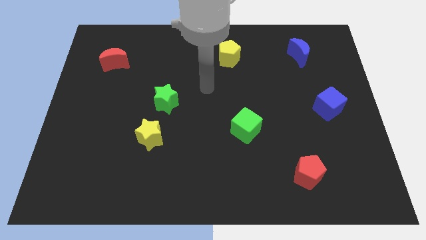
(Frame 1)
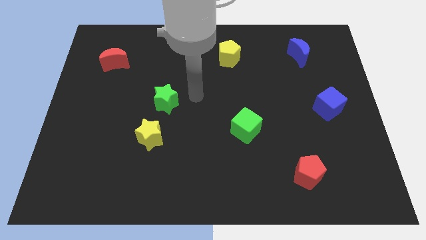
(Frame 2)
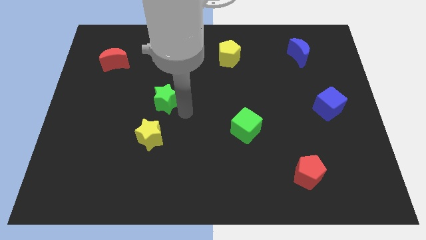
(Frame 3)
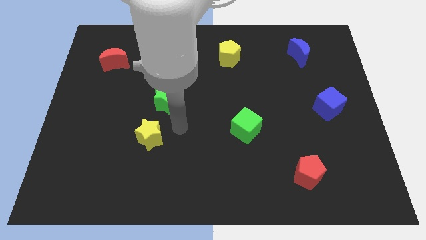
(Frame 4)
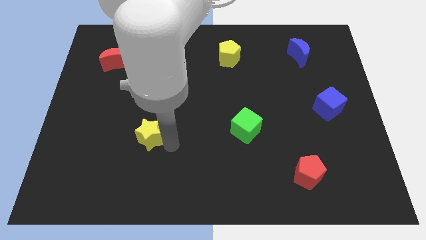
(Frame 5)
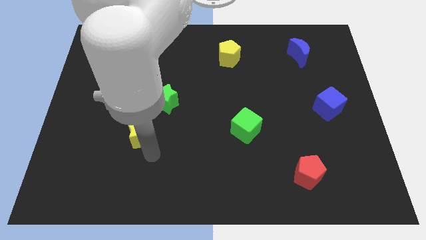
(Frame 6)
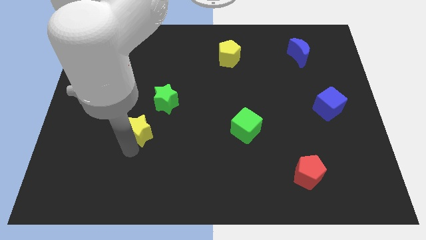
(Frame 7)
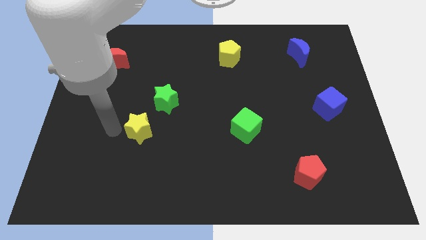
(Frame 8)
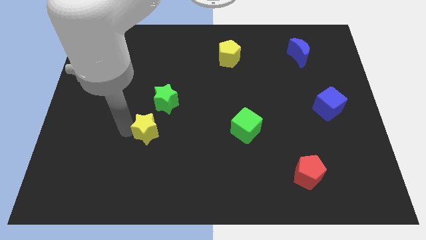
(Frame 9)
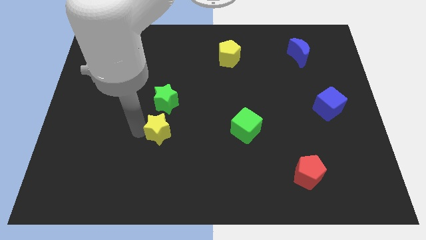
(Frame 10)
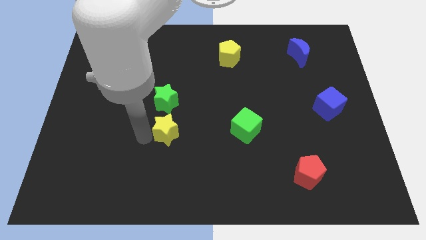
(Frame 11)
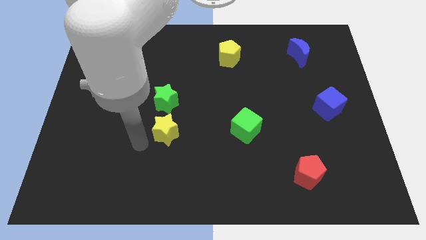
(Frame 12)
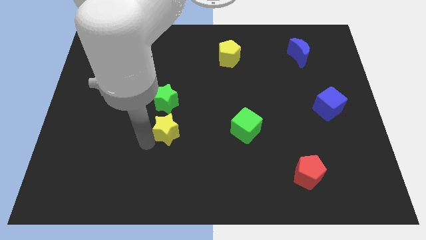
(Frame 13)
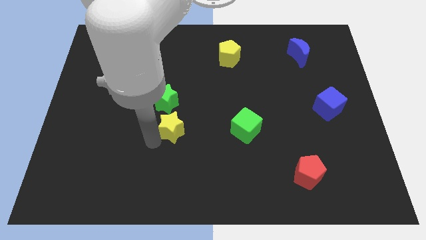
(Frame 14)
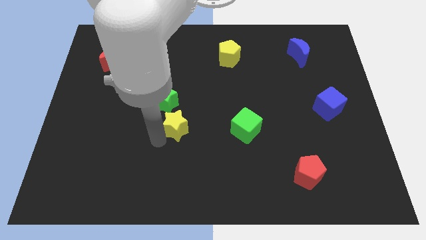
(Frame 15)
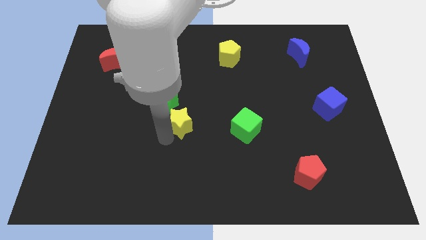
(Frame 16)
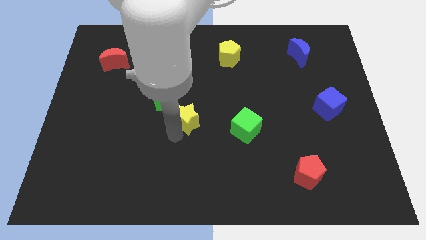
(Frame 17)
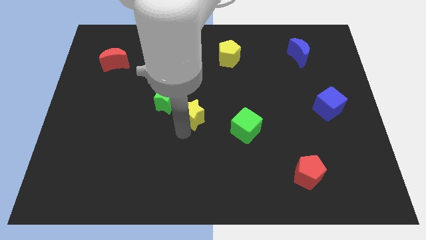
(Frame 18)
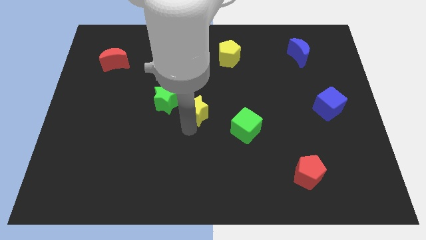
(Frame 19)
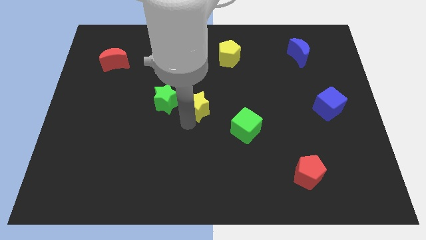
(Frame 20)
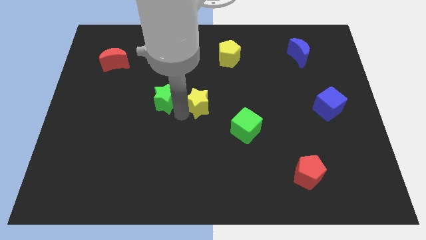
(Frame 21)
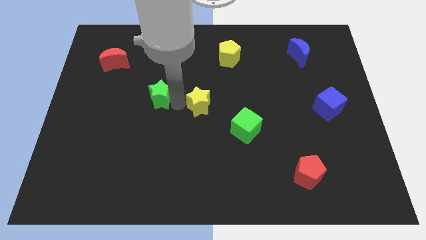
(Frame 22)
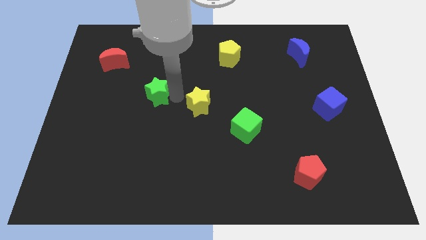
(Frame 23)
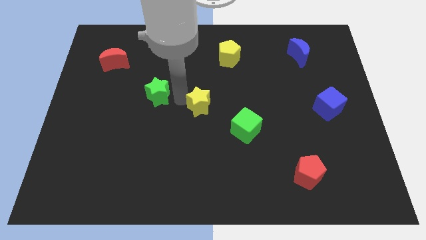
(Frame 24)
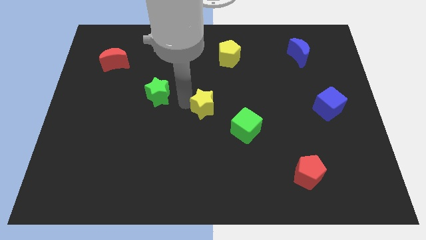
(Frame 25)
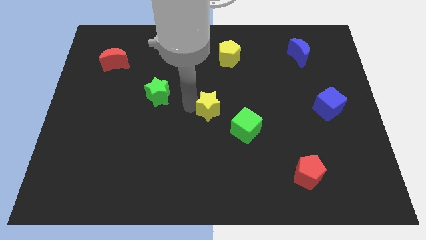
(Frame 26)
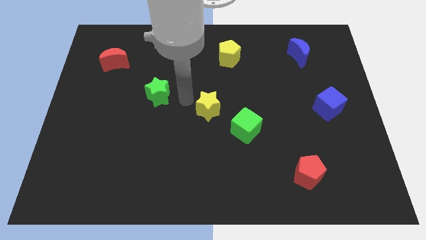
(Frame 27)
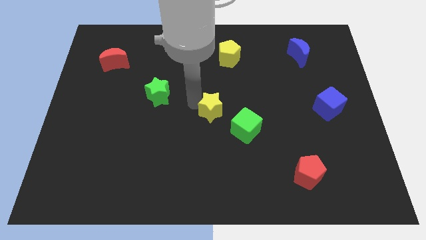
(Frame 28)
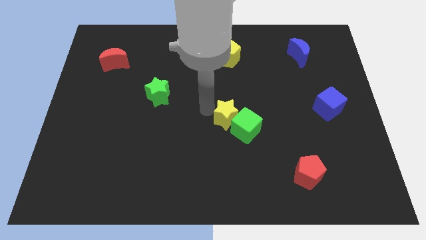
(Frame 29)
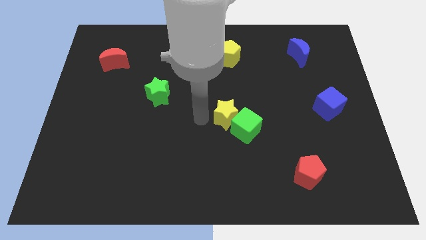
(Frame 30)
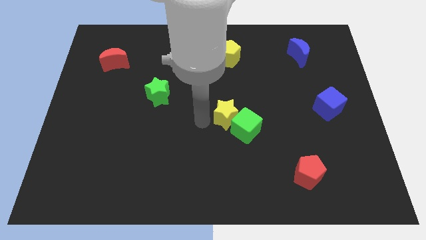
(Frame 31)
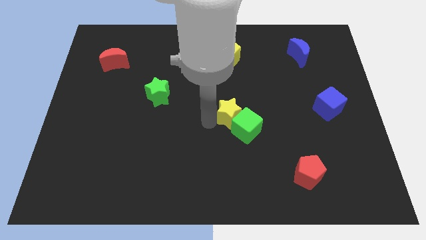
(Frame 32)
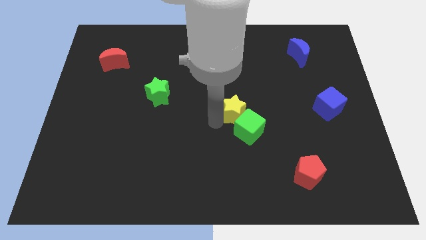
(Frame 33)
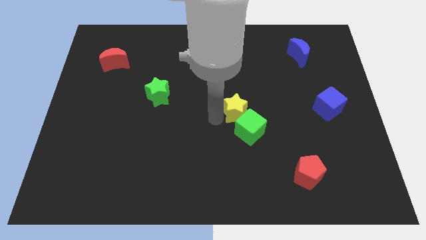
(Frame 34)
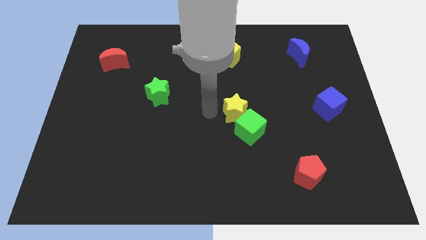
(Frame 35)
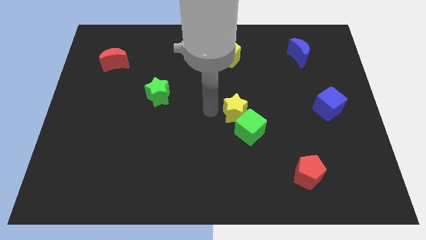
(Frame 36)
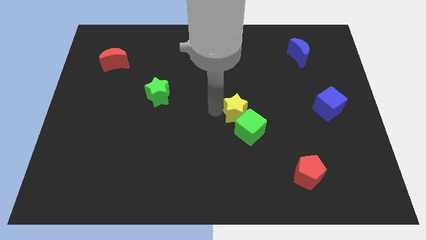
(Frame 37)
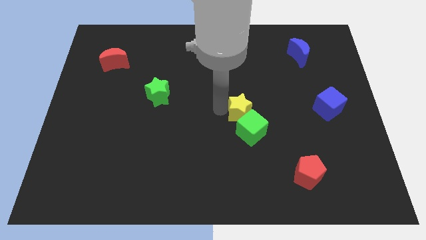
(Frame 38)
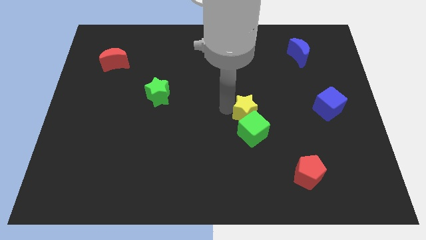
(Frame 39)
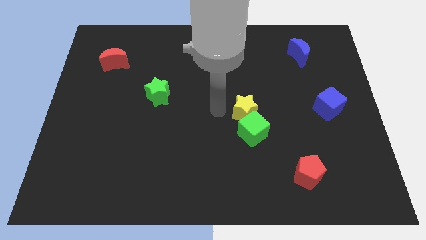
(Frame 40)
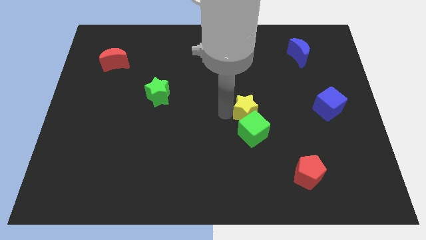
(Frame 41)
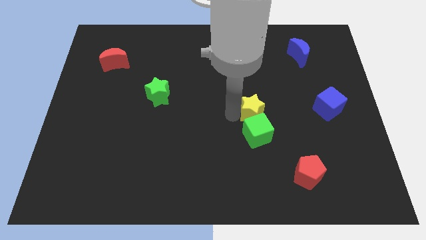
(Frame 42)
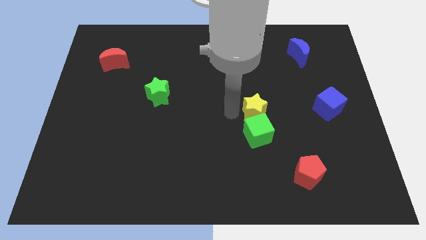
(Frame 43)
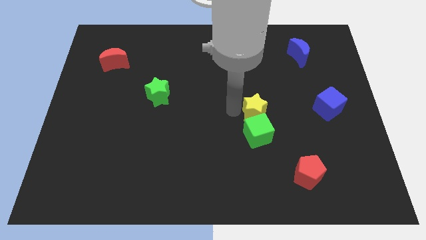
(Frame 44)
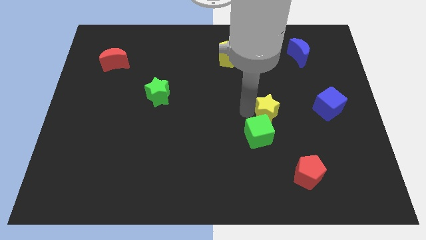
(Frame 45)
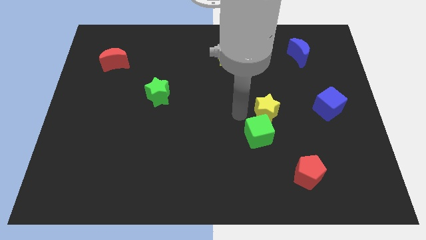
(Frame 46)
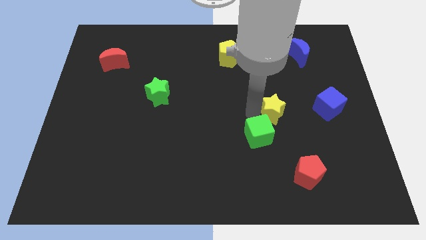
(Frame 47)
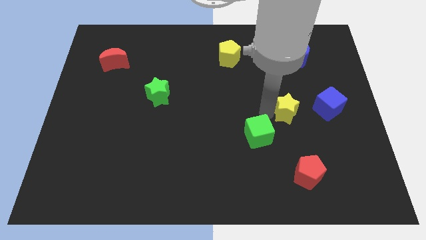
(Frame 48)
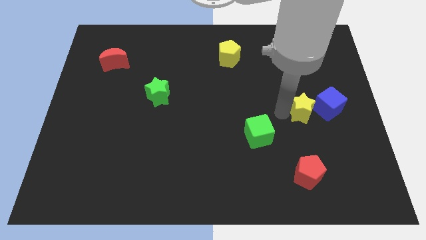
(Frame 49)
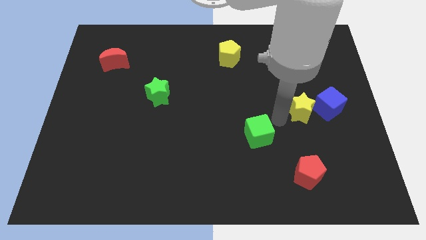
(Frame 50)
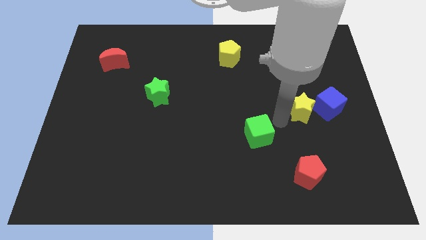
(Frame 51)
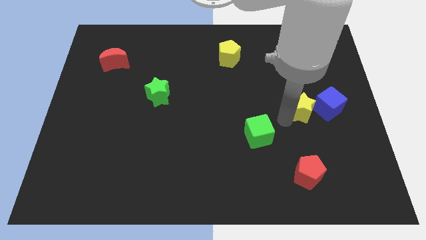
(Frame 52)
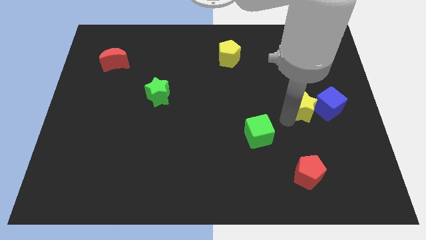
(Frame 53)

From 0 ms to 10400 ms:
slide the yellow star to the blue cube

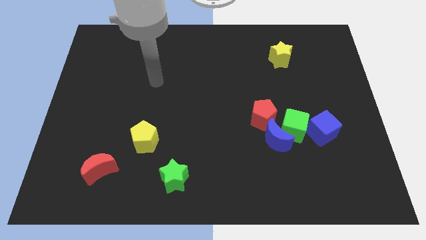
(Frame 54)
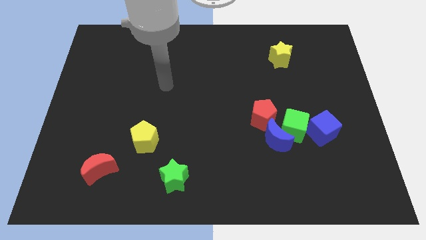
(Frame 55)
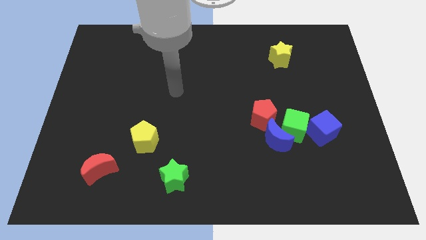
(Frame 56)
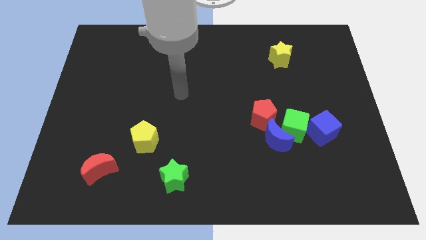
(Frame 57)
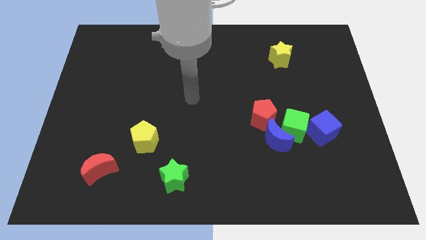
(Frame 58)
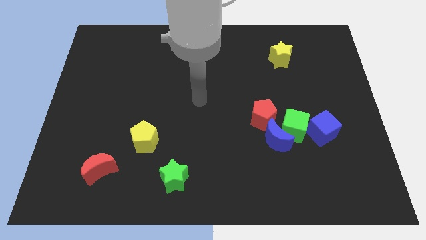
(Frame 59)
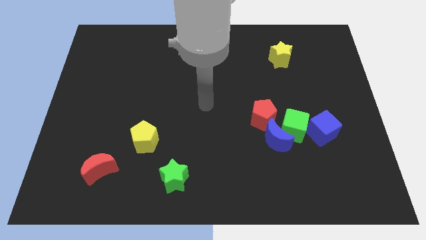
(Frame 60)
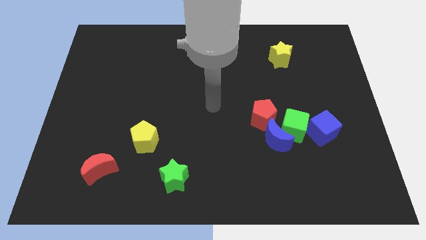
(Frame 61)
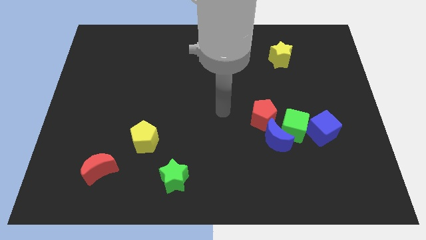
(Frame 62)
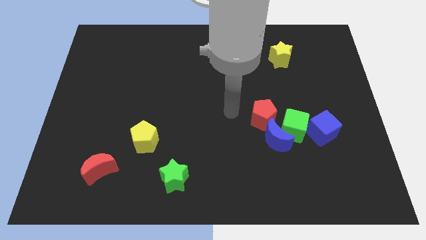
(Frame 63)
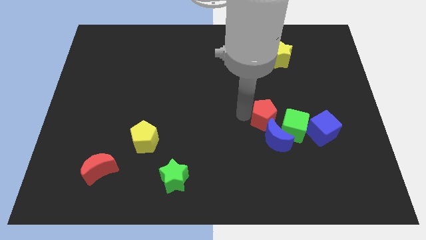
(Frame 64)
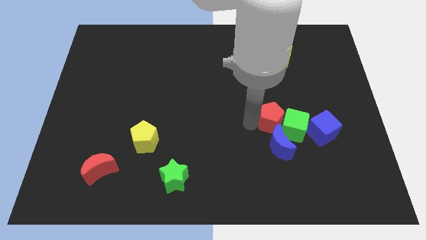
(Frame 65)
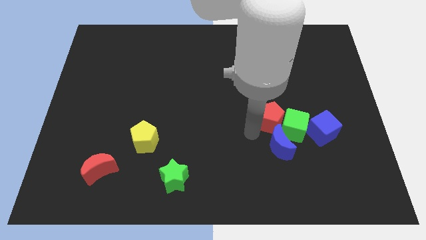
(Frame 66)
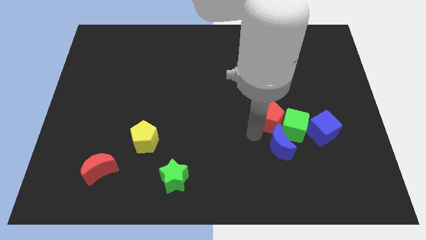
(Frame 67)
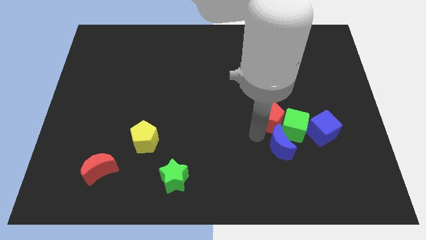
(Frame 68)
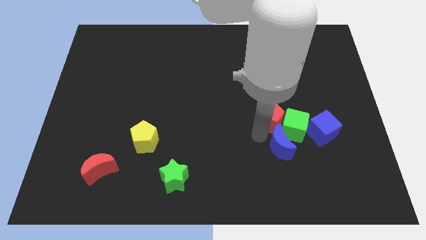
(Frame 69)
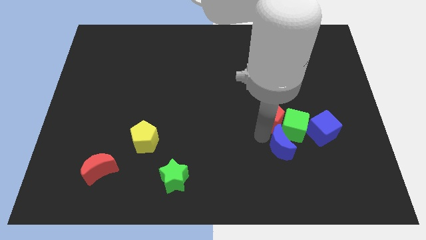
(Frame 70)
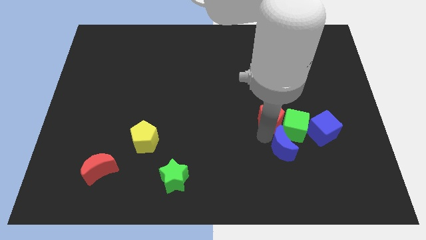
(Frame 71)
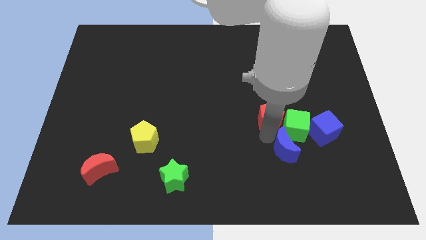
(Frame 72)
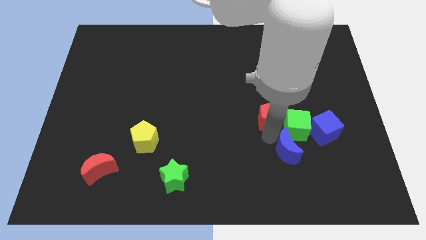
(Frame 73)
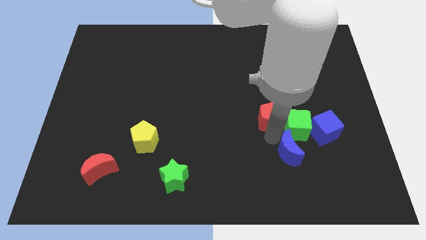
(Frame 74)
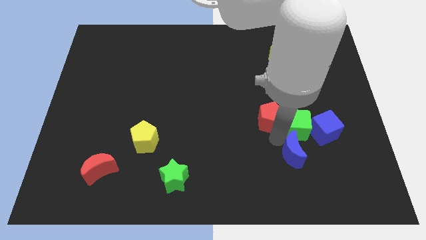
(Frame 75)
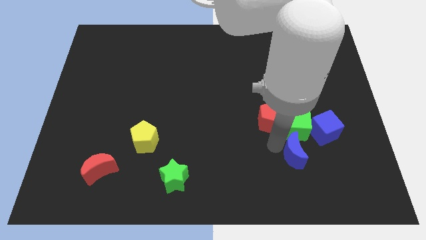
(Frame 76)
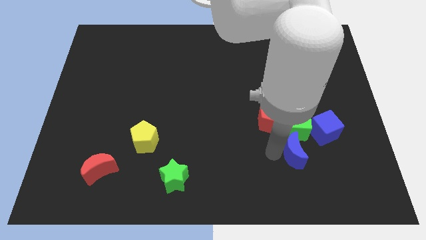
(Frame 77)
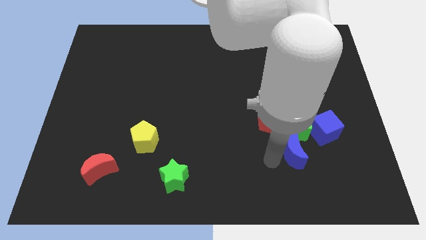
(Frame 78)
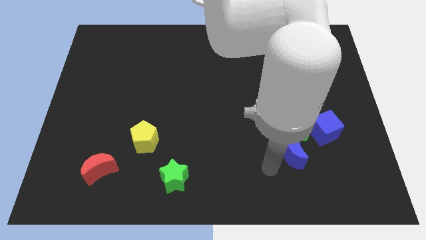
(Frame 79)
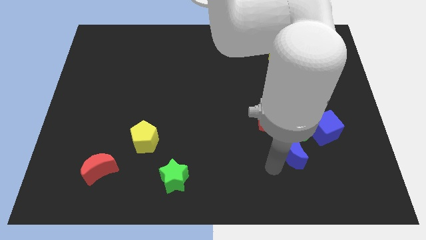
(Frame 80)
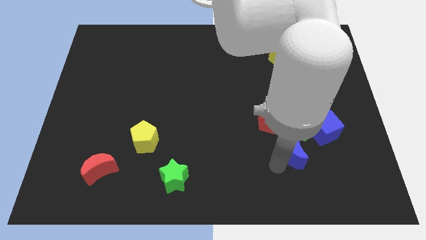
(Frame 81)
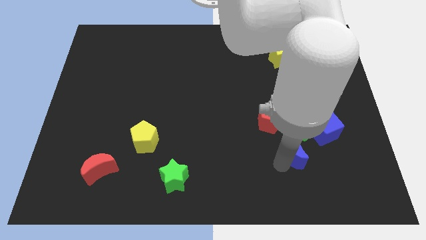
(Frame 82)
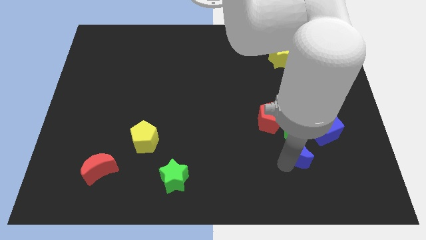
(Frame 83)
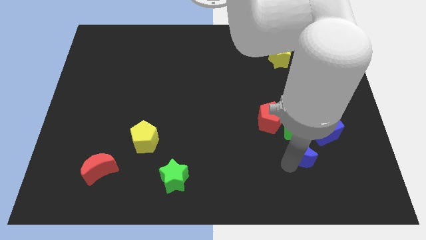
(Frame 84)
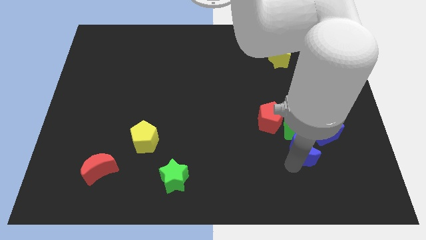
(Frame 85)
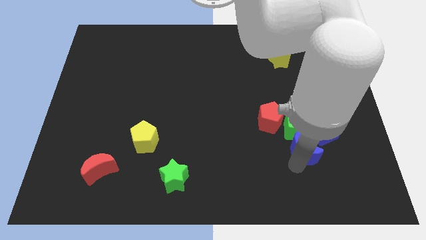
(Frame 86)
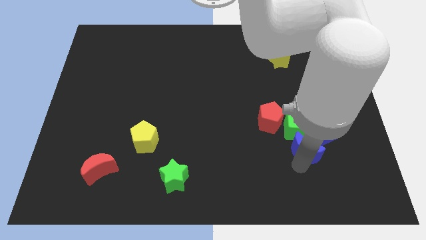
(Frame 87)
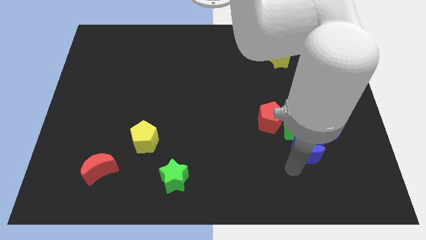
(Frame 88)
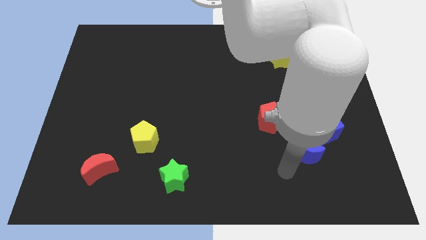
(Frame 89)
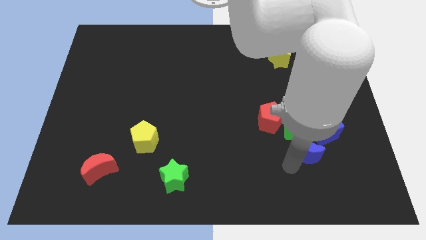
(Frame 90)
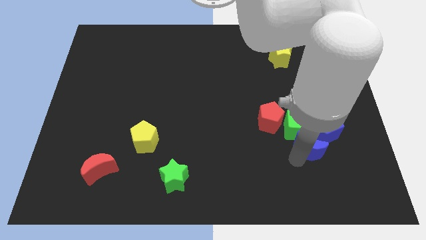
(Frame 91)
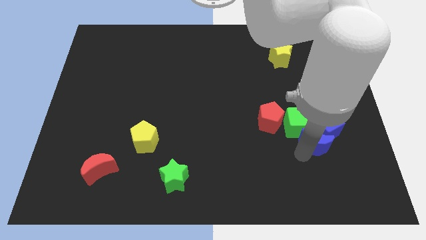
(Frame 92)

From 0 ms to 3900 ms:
push the blue moon to the blue cube
